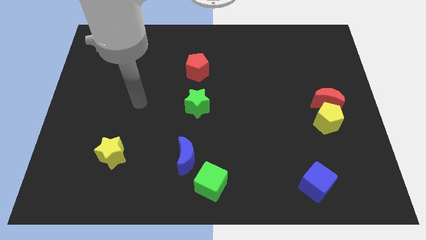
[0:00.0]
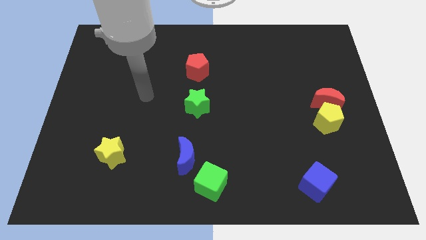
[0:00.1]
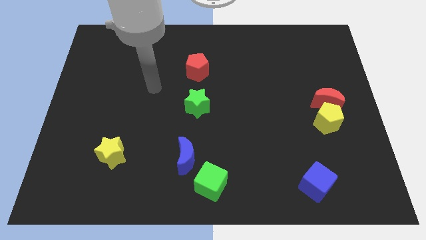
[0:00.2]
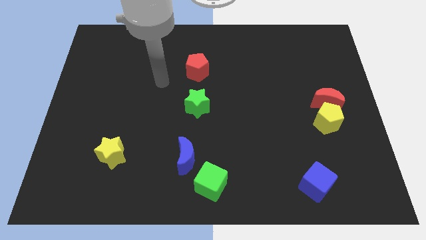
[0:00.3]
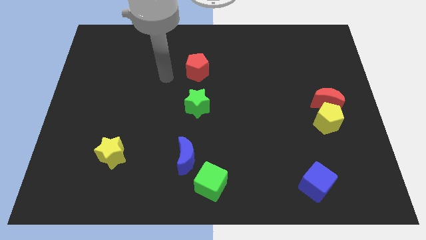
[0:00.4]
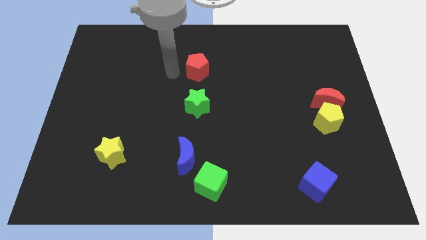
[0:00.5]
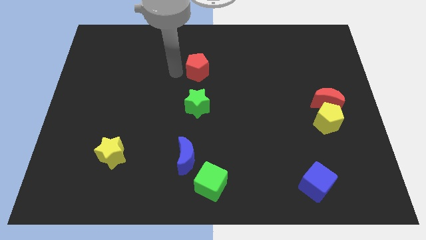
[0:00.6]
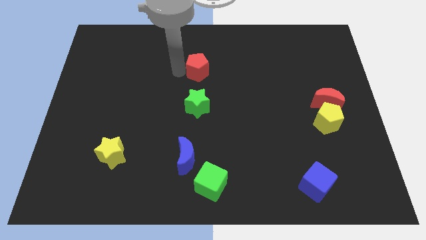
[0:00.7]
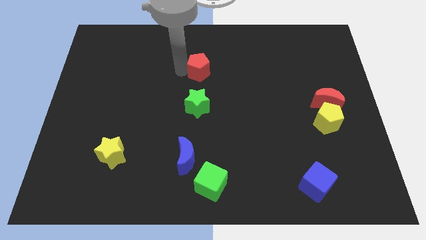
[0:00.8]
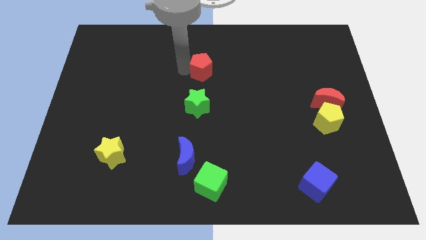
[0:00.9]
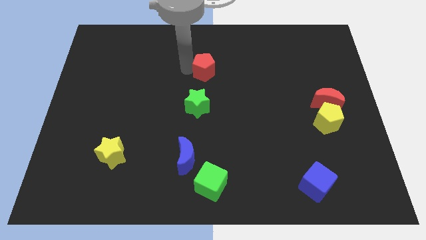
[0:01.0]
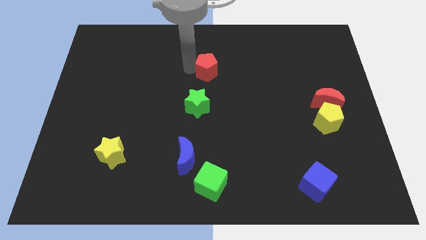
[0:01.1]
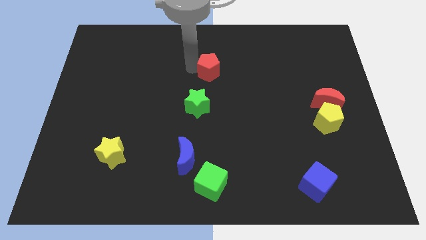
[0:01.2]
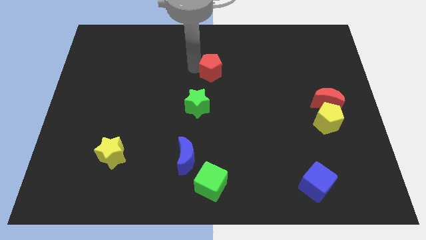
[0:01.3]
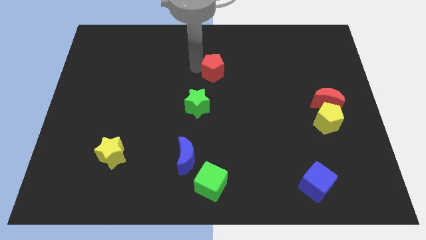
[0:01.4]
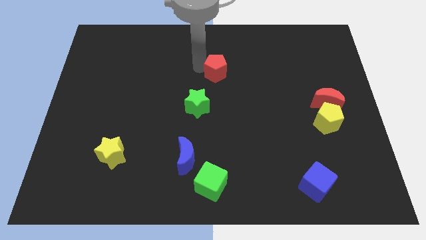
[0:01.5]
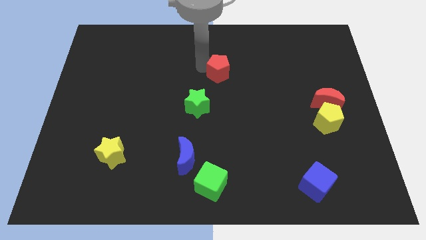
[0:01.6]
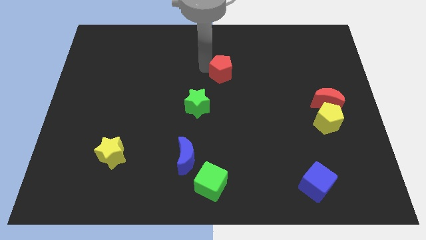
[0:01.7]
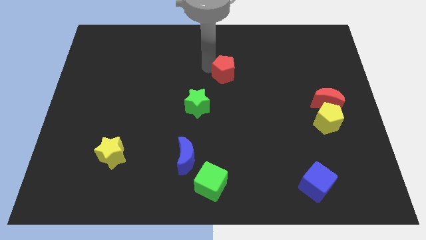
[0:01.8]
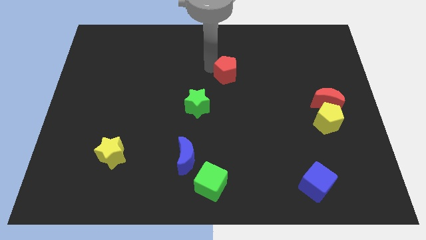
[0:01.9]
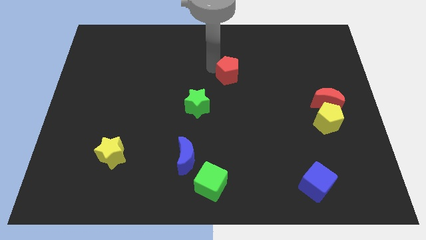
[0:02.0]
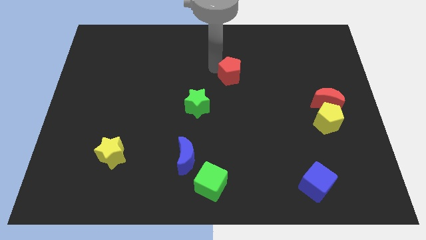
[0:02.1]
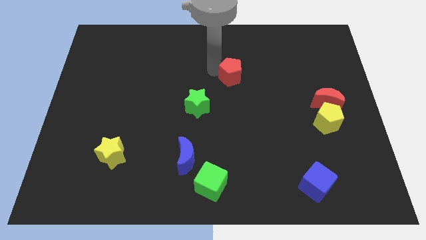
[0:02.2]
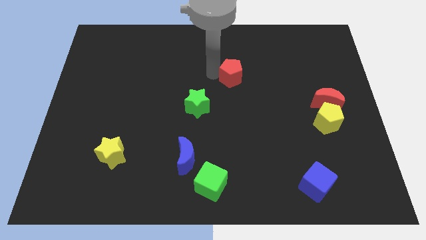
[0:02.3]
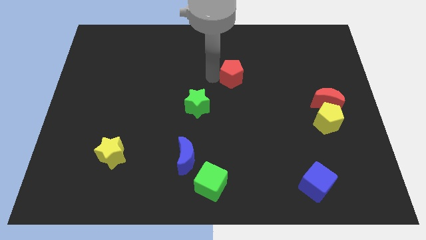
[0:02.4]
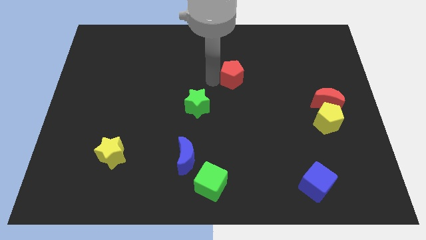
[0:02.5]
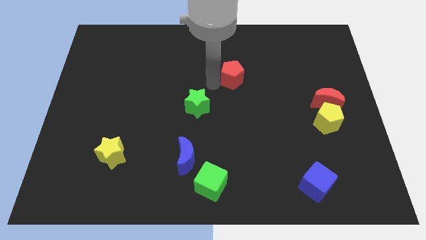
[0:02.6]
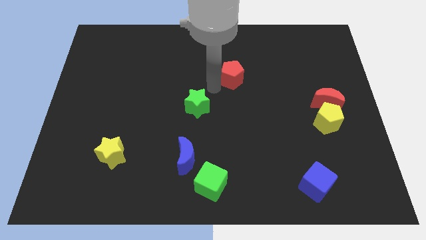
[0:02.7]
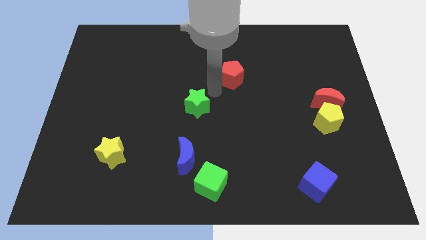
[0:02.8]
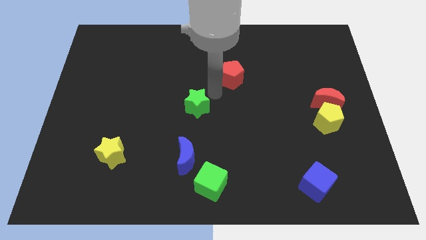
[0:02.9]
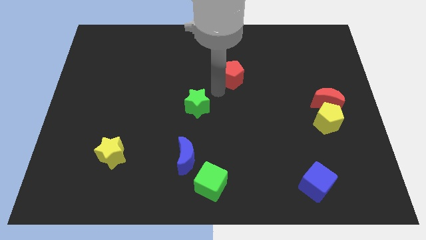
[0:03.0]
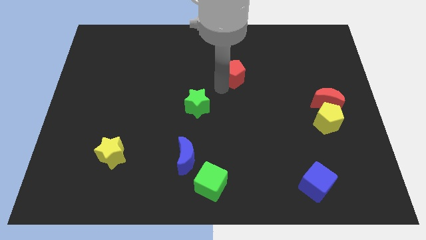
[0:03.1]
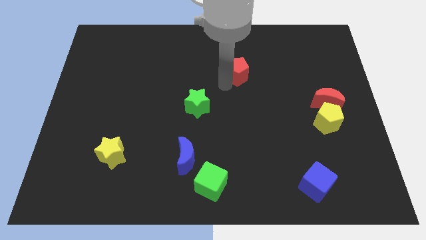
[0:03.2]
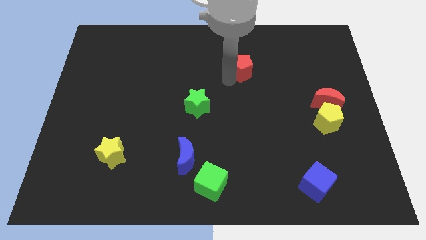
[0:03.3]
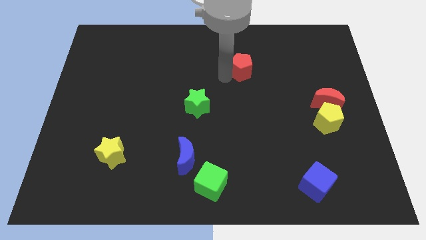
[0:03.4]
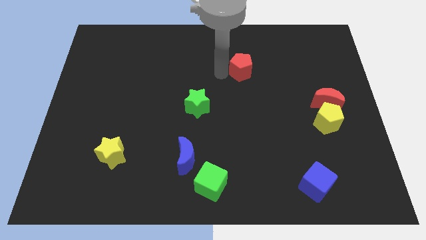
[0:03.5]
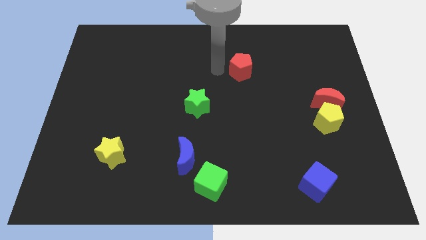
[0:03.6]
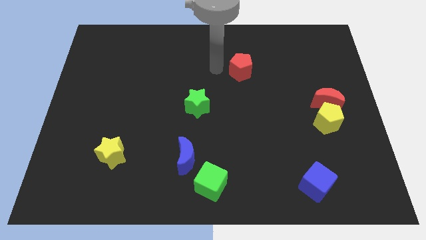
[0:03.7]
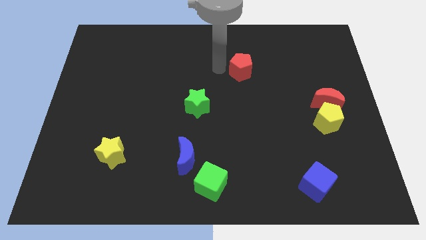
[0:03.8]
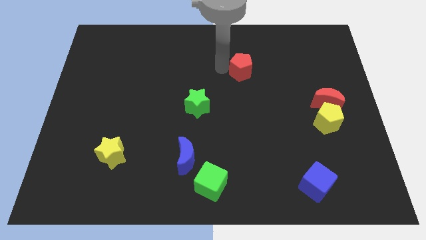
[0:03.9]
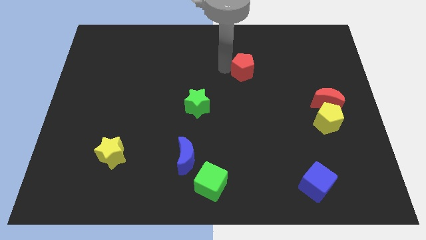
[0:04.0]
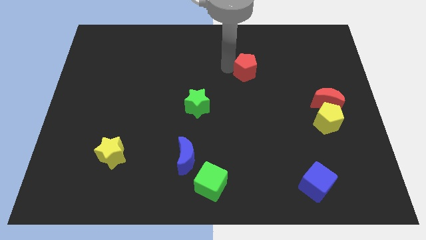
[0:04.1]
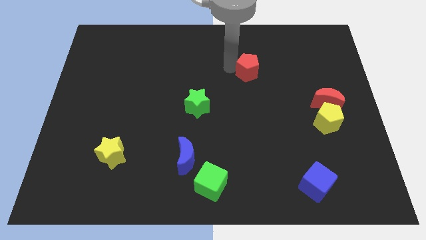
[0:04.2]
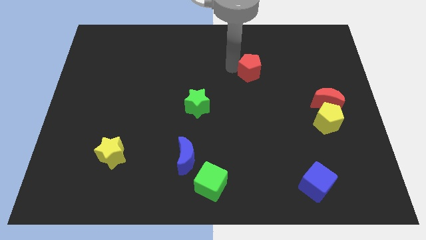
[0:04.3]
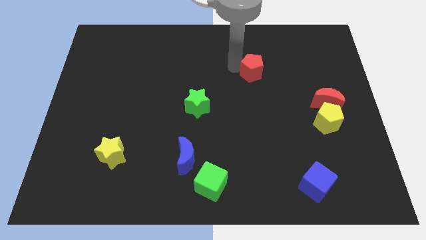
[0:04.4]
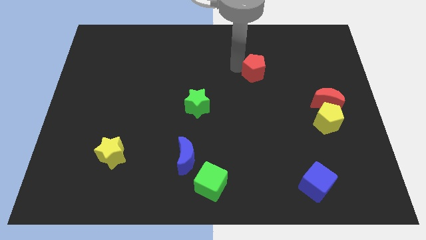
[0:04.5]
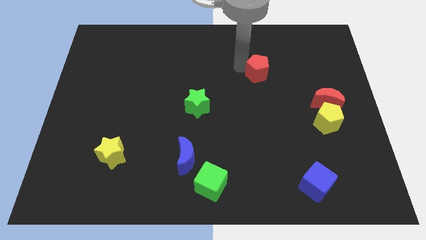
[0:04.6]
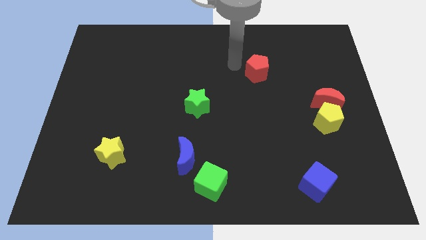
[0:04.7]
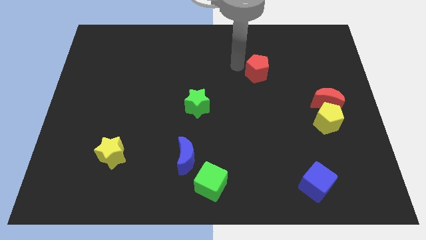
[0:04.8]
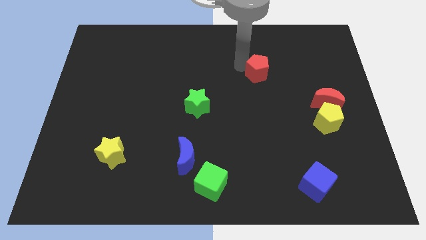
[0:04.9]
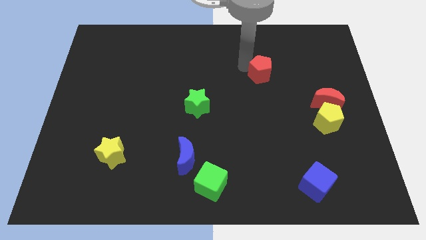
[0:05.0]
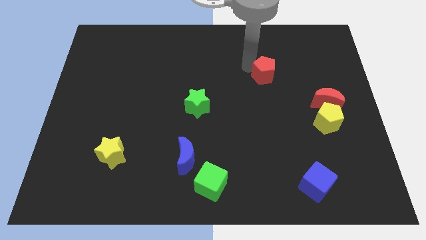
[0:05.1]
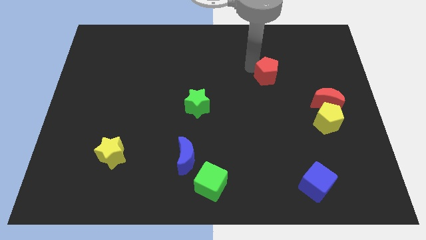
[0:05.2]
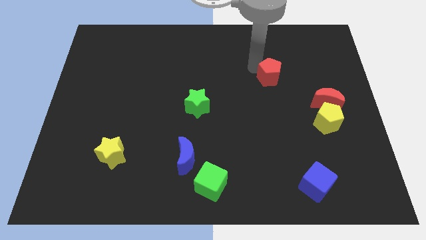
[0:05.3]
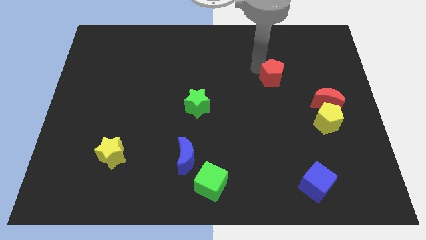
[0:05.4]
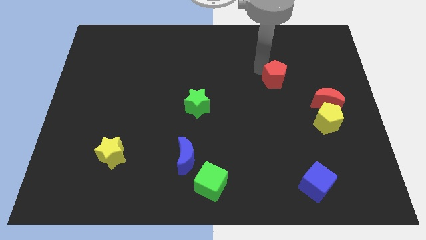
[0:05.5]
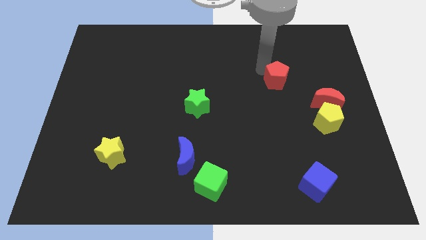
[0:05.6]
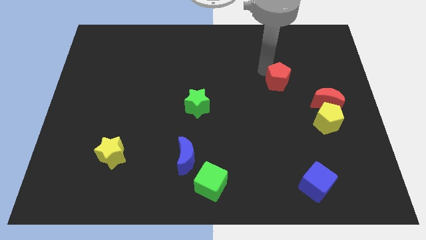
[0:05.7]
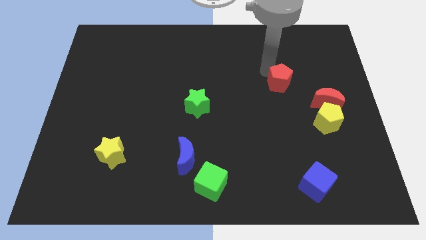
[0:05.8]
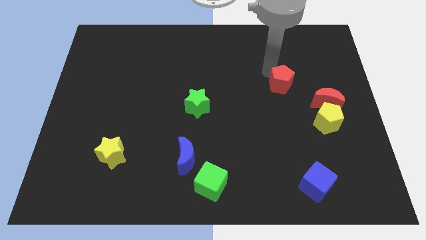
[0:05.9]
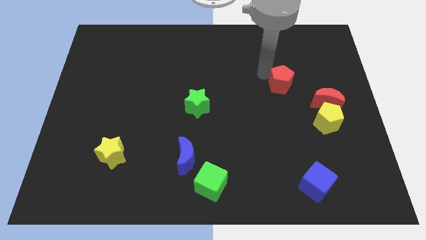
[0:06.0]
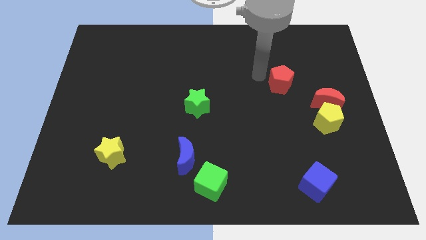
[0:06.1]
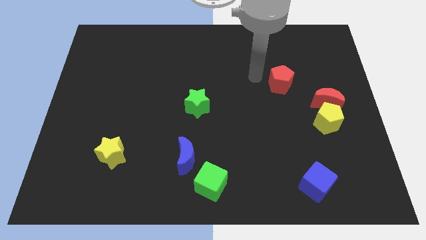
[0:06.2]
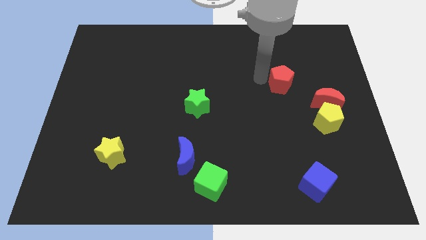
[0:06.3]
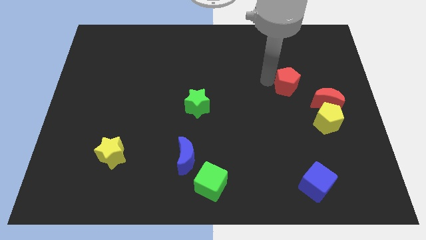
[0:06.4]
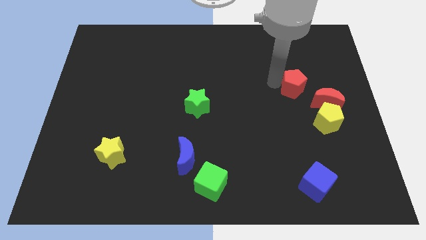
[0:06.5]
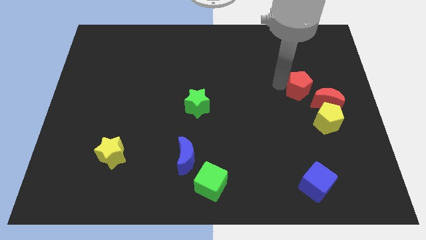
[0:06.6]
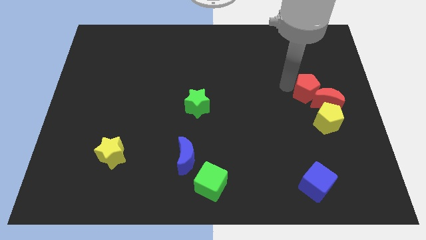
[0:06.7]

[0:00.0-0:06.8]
slide the red pentagon close to the red moon
